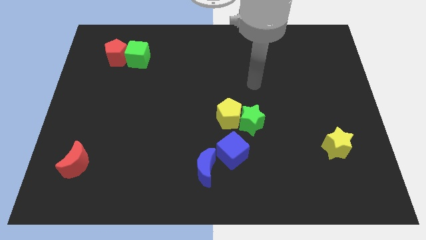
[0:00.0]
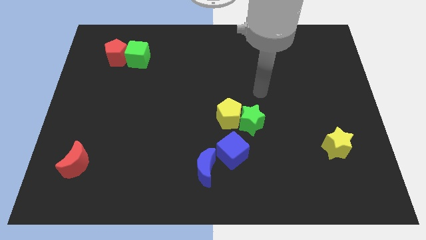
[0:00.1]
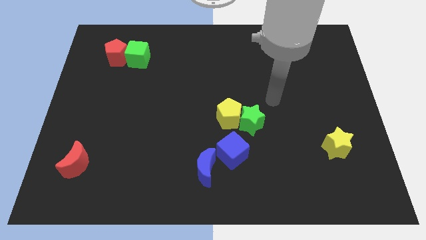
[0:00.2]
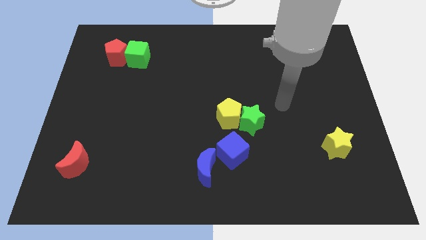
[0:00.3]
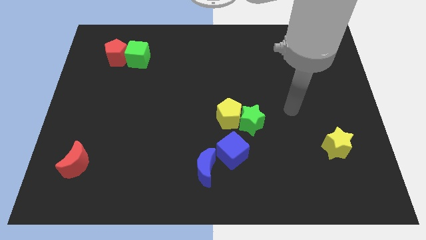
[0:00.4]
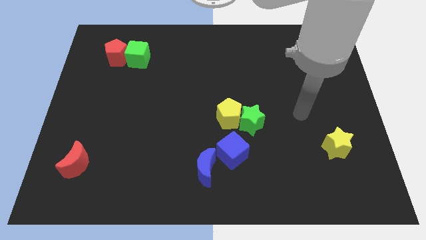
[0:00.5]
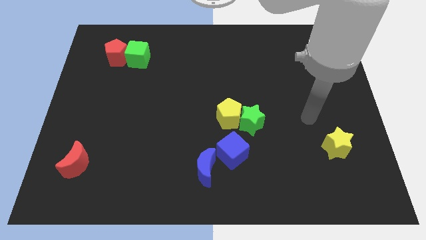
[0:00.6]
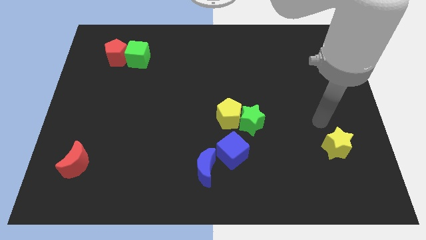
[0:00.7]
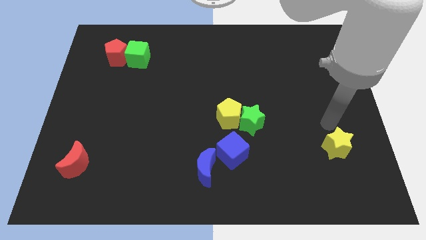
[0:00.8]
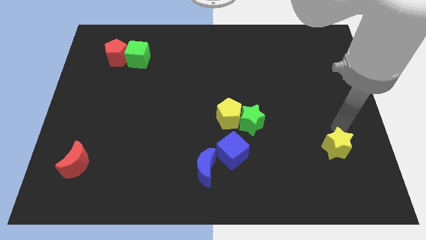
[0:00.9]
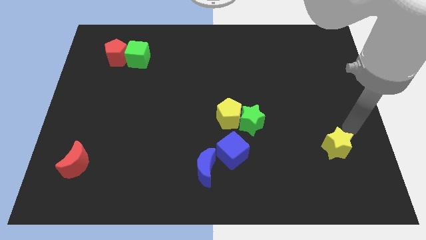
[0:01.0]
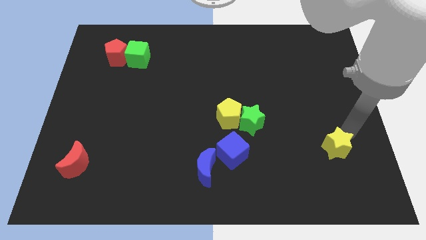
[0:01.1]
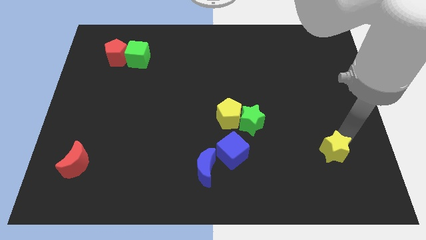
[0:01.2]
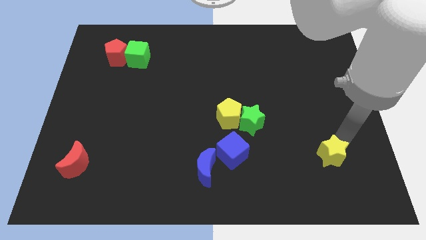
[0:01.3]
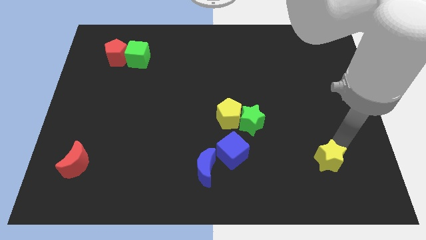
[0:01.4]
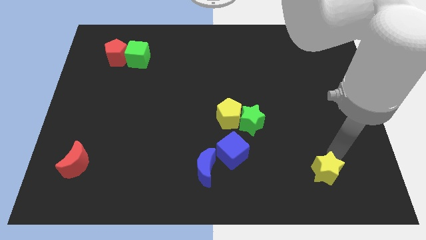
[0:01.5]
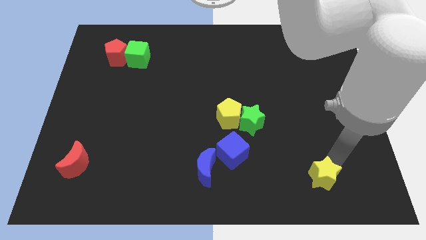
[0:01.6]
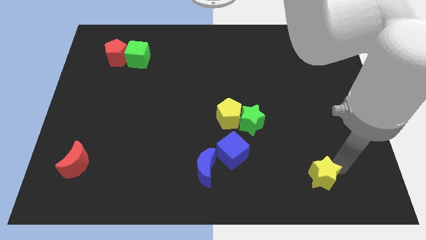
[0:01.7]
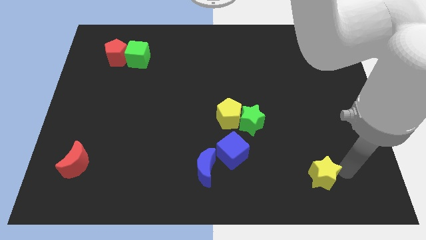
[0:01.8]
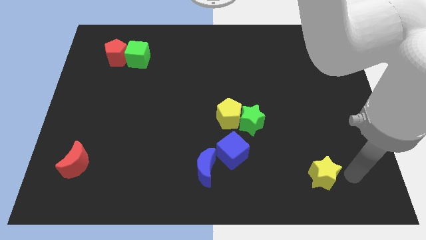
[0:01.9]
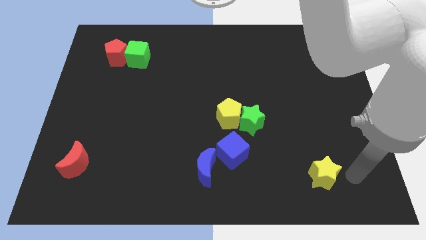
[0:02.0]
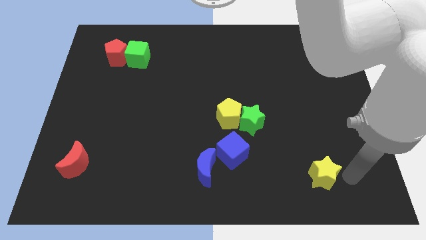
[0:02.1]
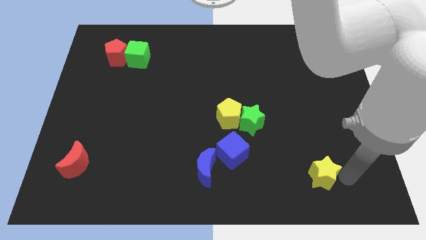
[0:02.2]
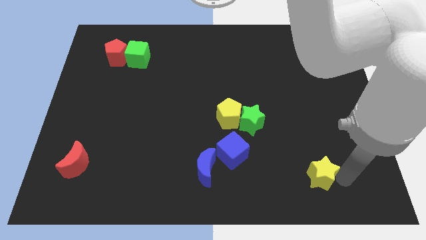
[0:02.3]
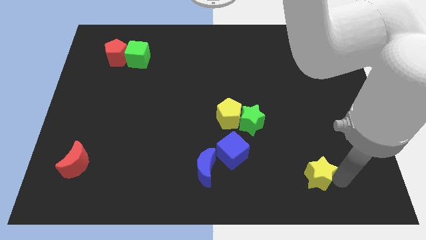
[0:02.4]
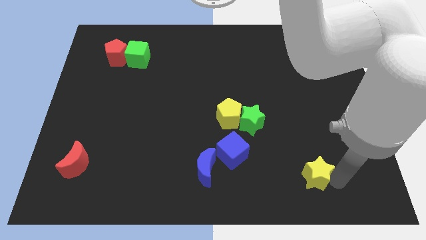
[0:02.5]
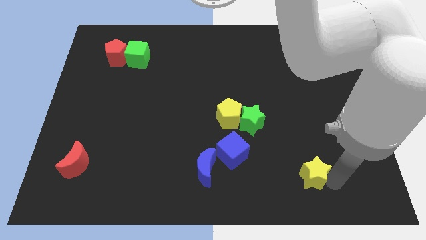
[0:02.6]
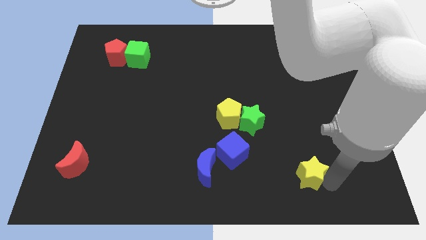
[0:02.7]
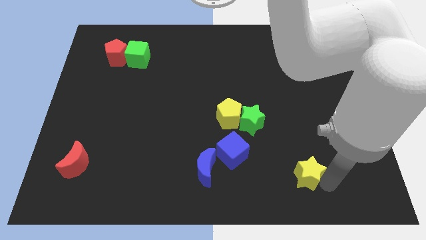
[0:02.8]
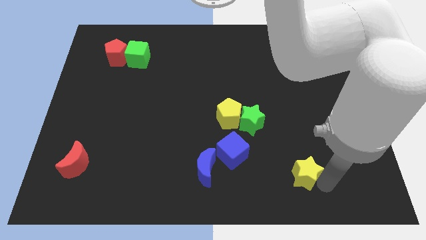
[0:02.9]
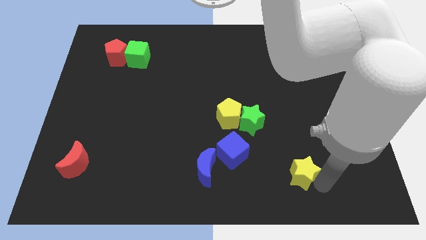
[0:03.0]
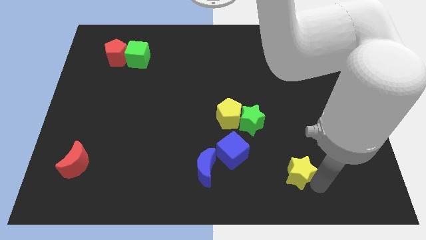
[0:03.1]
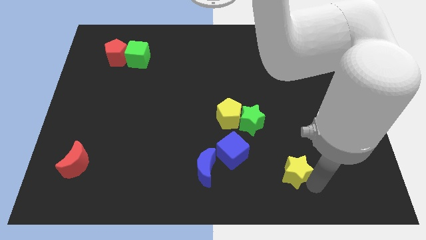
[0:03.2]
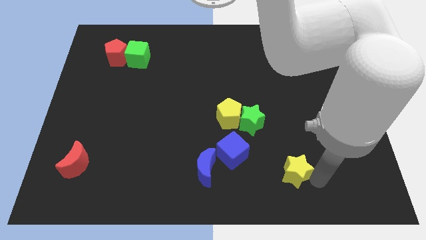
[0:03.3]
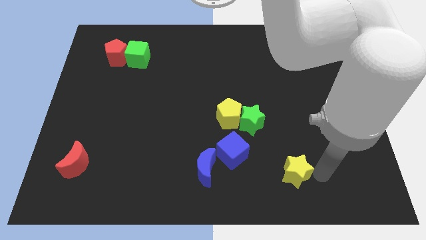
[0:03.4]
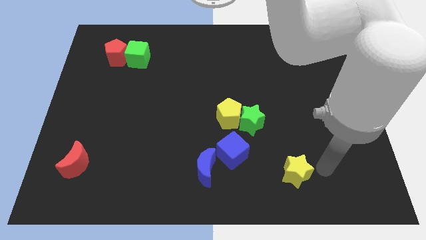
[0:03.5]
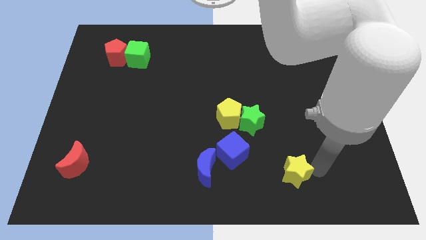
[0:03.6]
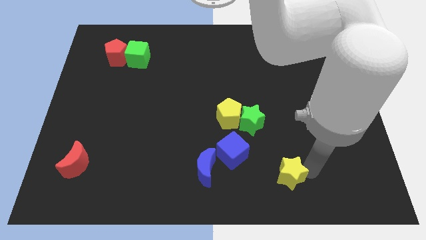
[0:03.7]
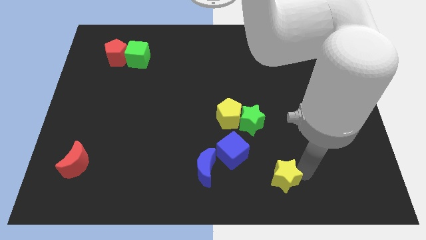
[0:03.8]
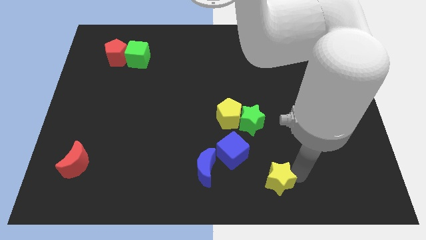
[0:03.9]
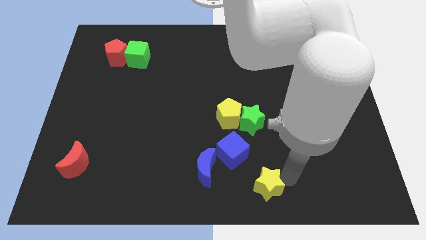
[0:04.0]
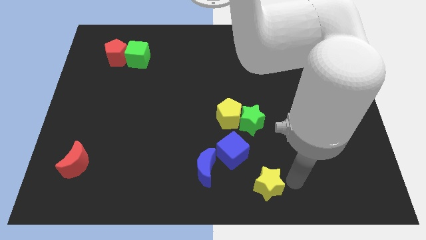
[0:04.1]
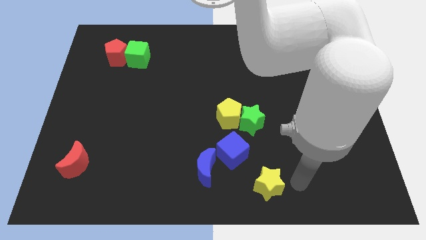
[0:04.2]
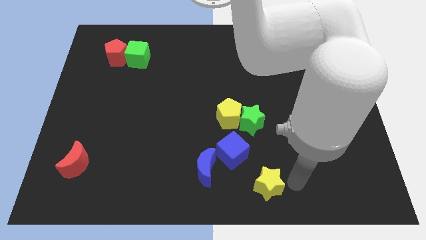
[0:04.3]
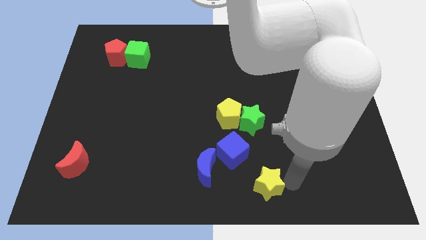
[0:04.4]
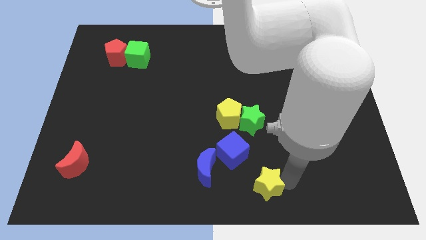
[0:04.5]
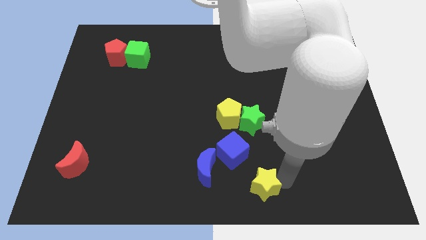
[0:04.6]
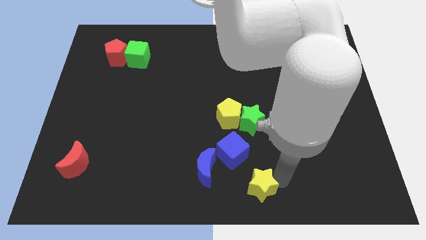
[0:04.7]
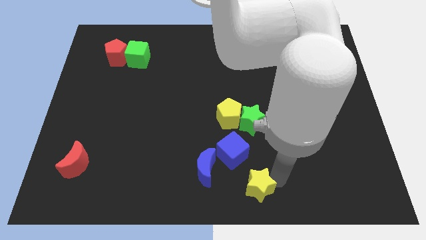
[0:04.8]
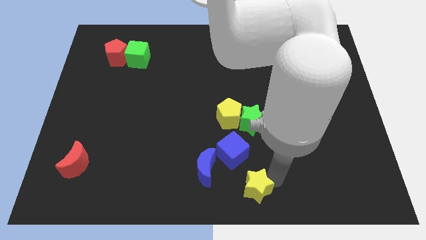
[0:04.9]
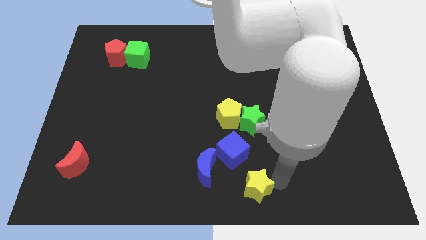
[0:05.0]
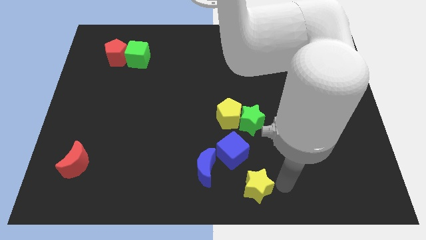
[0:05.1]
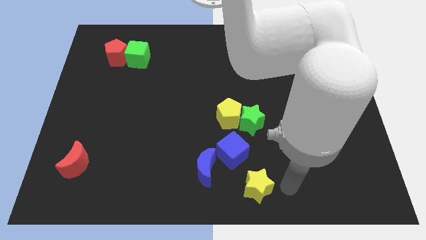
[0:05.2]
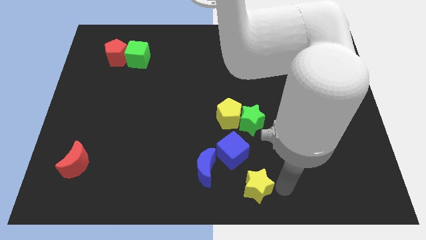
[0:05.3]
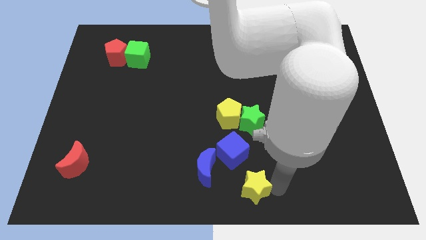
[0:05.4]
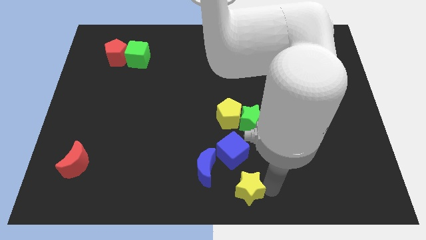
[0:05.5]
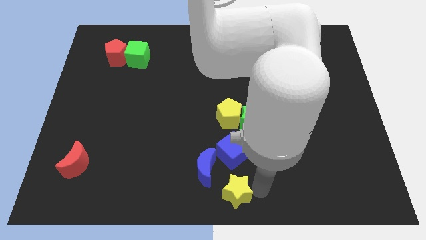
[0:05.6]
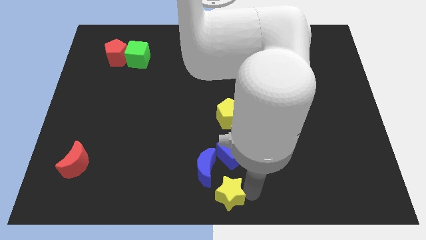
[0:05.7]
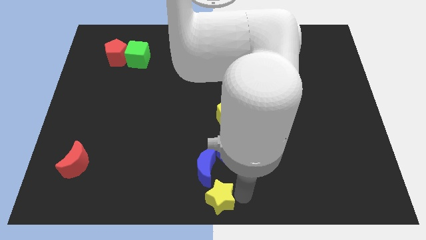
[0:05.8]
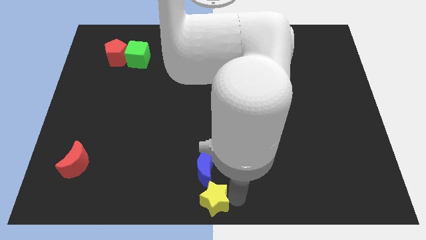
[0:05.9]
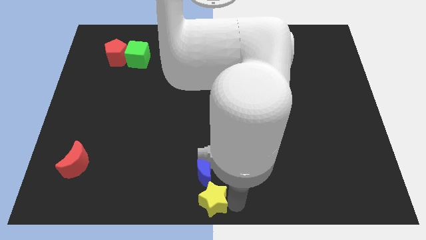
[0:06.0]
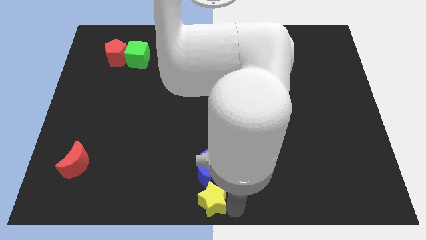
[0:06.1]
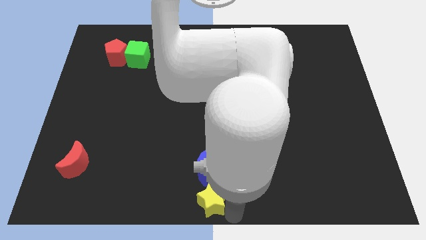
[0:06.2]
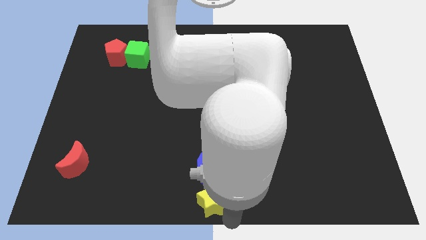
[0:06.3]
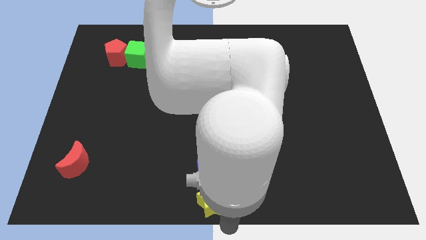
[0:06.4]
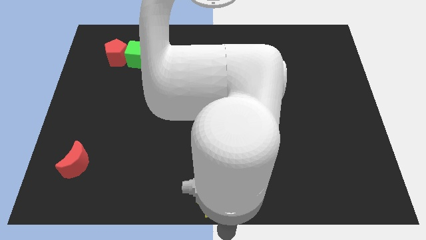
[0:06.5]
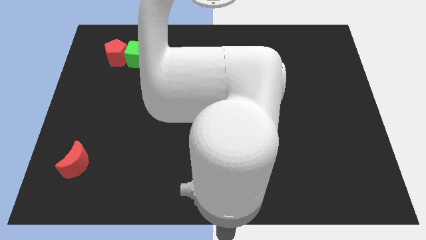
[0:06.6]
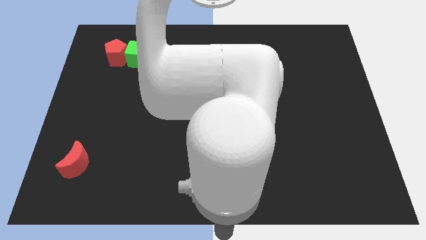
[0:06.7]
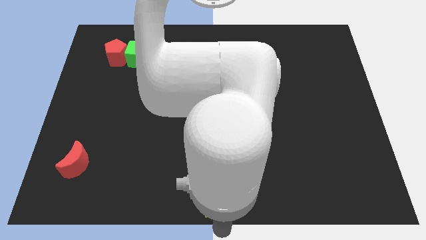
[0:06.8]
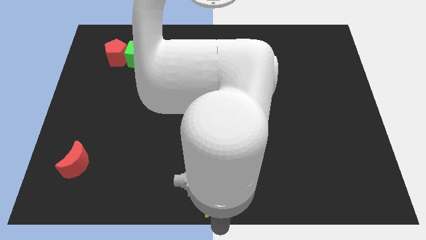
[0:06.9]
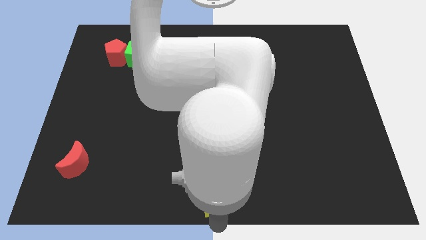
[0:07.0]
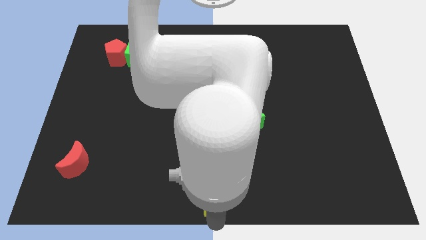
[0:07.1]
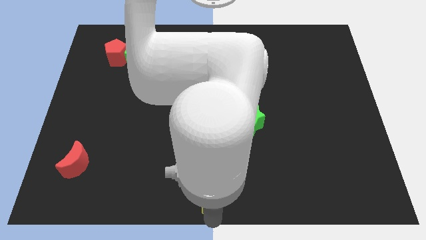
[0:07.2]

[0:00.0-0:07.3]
slide the yellow star left

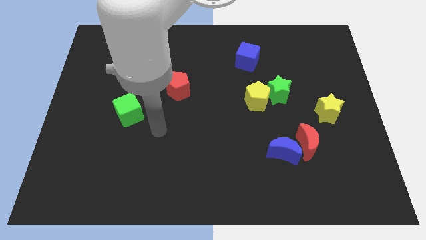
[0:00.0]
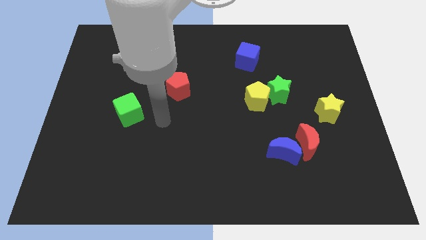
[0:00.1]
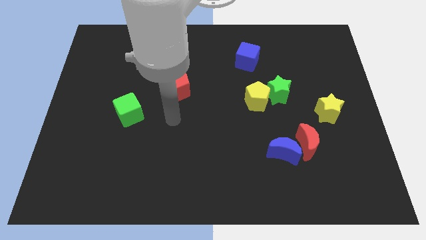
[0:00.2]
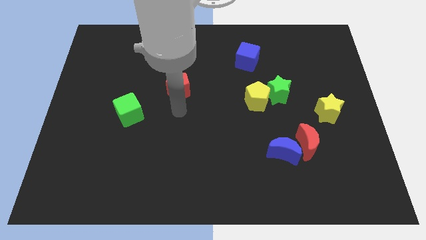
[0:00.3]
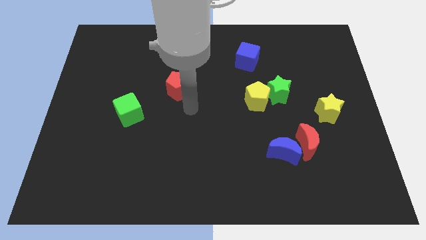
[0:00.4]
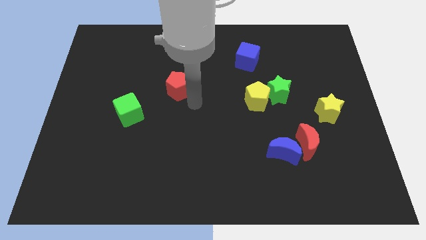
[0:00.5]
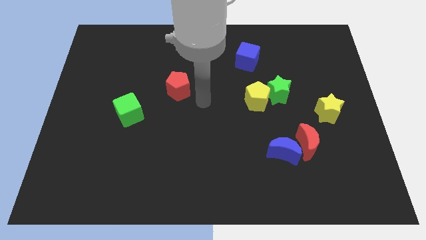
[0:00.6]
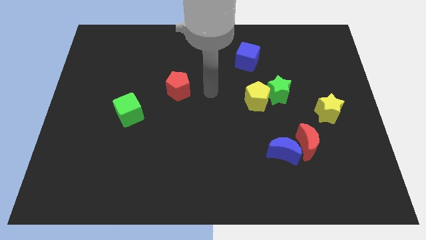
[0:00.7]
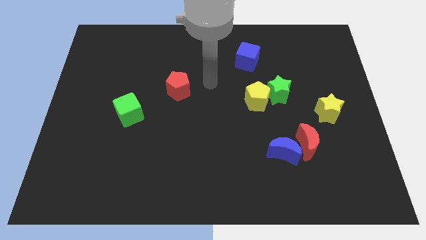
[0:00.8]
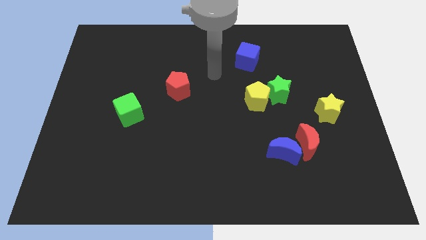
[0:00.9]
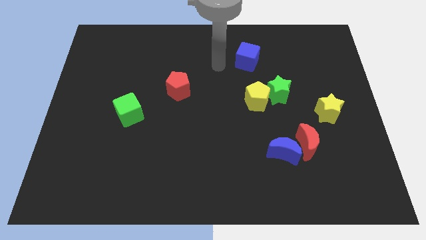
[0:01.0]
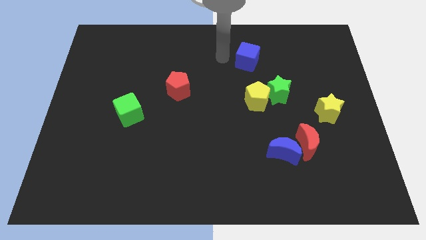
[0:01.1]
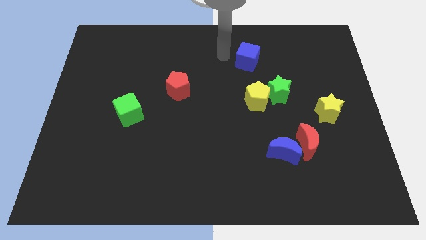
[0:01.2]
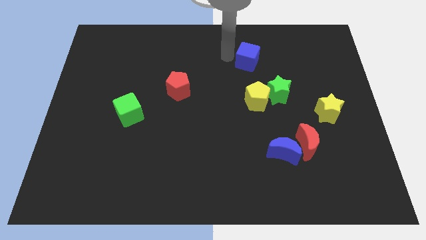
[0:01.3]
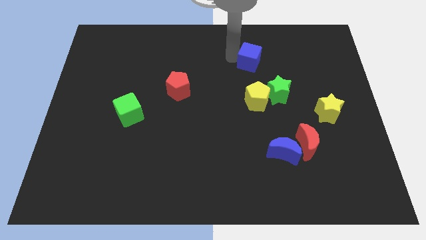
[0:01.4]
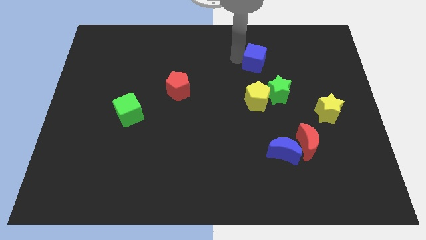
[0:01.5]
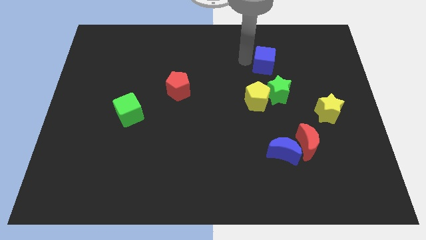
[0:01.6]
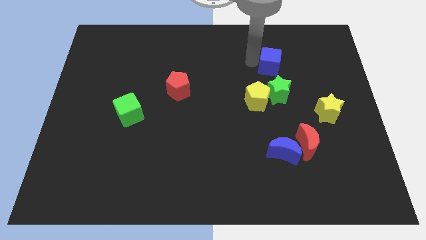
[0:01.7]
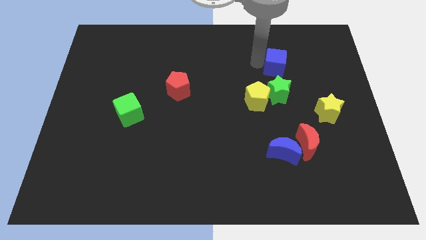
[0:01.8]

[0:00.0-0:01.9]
slightly slide the blue cube right
